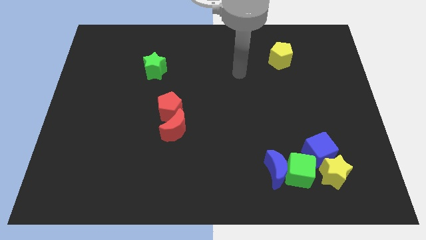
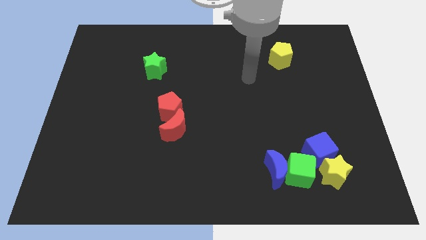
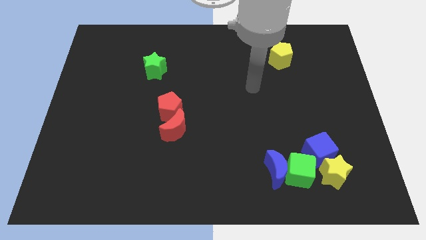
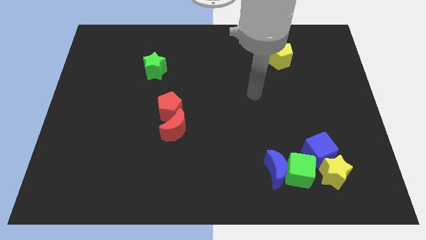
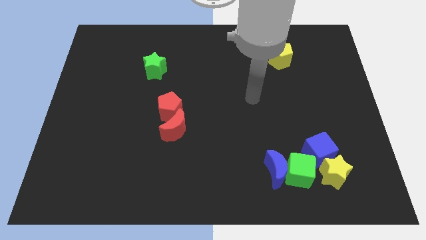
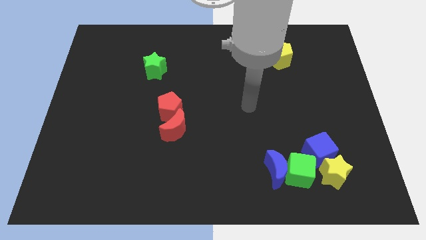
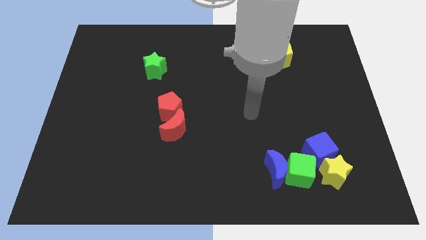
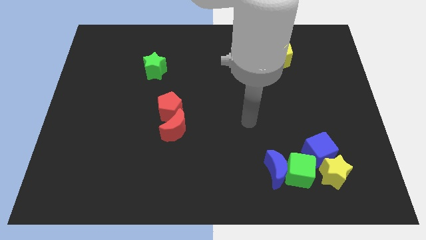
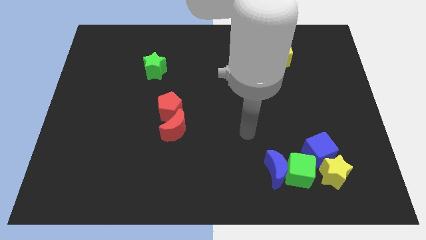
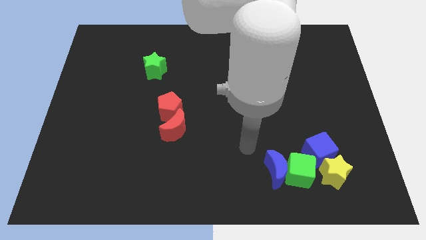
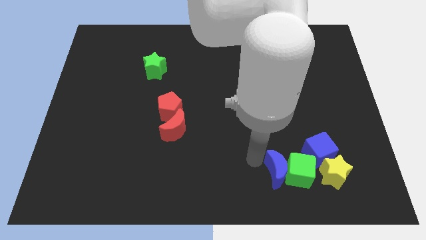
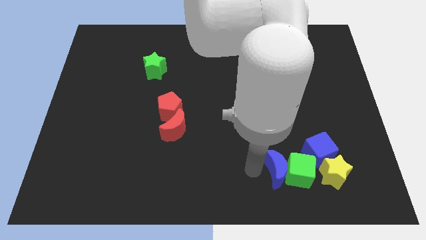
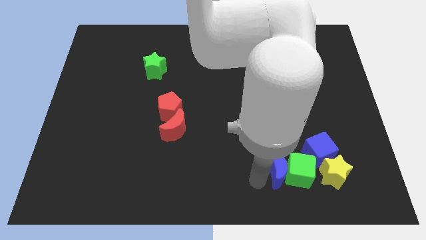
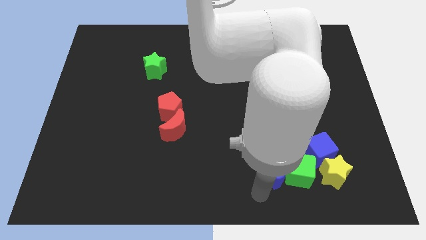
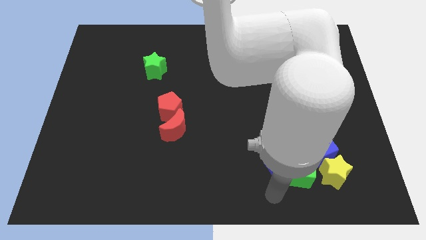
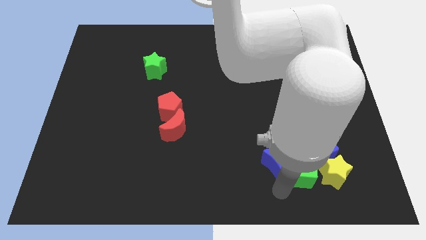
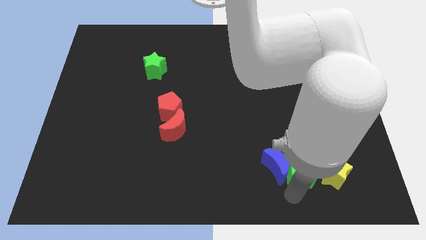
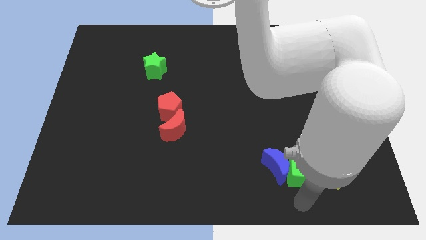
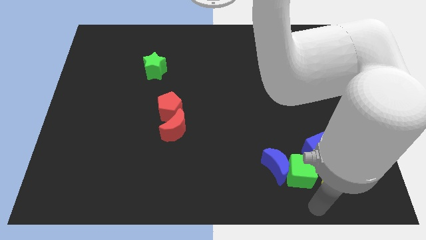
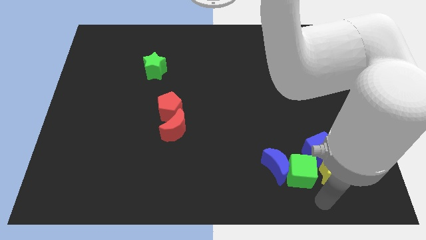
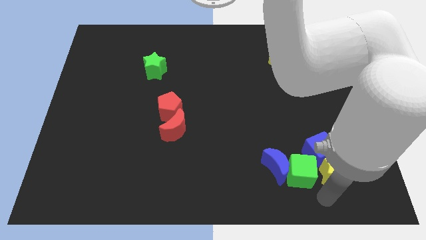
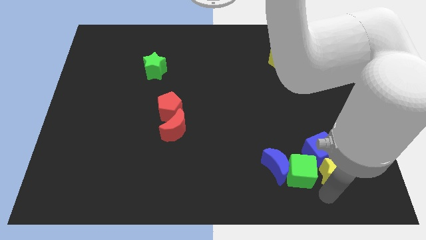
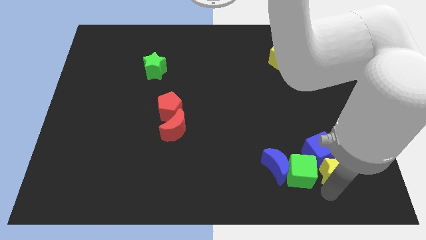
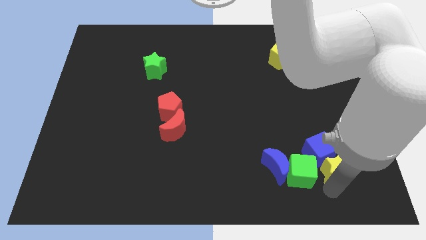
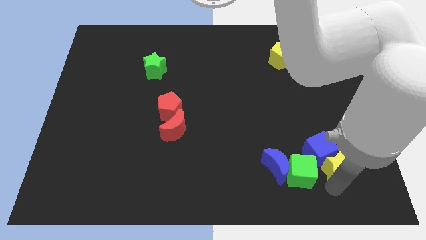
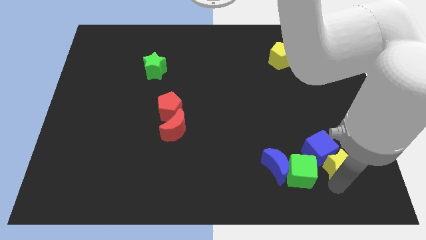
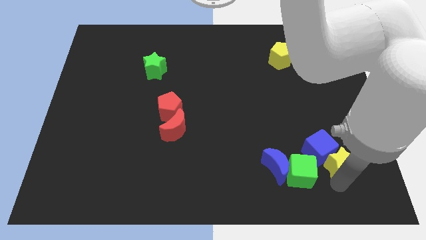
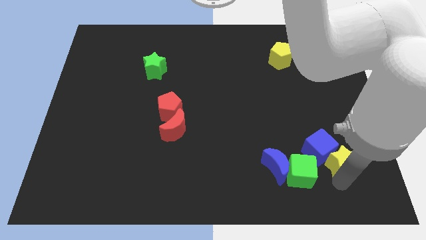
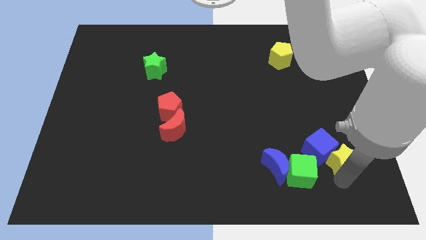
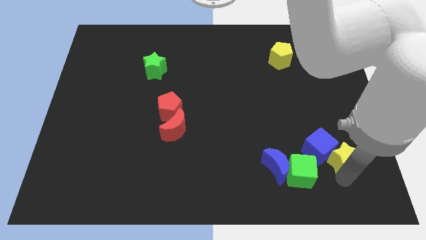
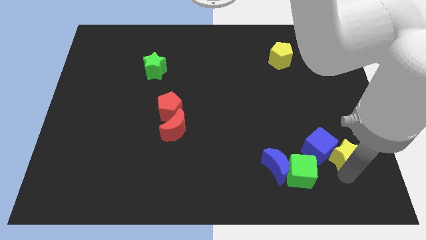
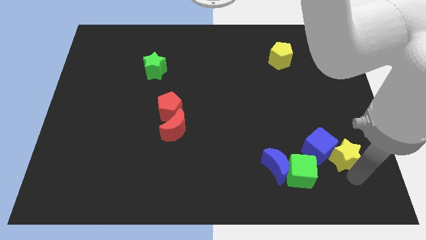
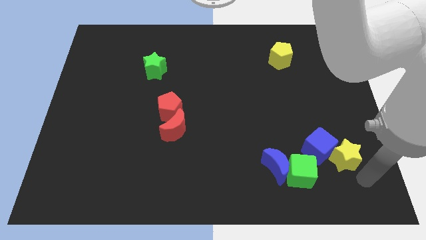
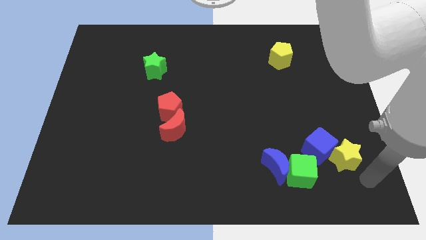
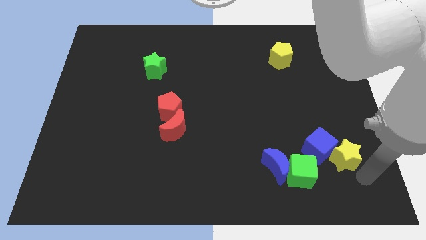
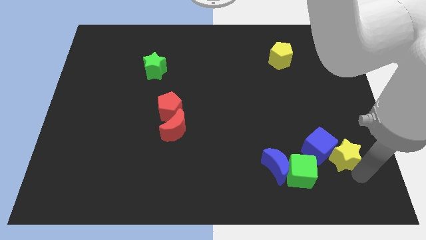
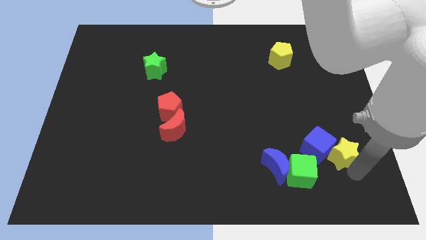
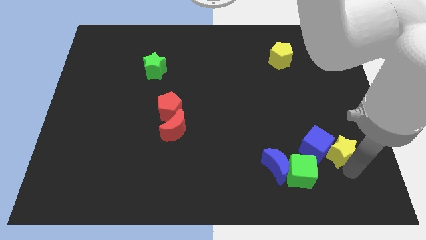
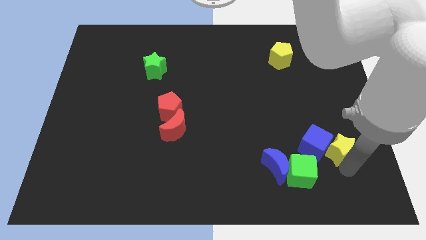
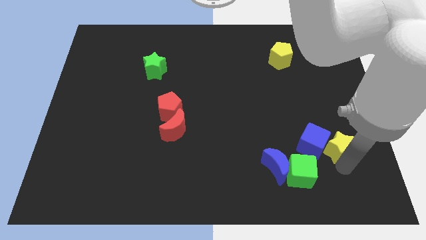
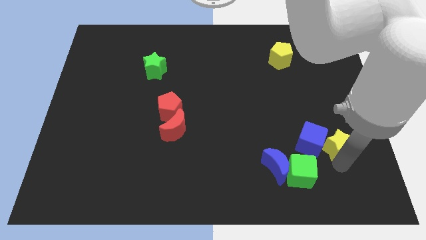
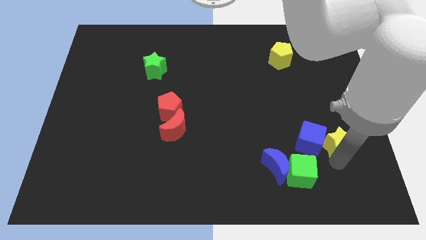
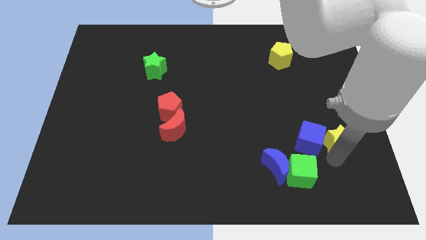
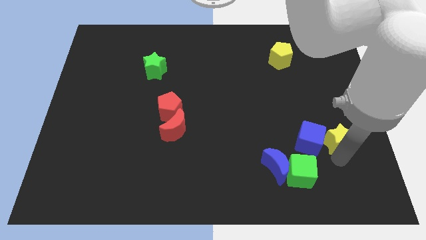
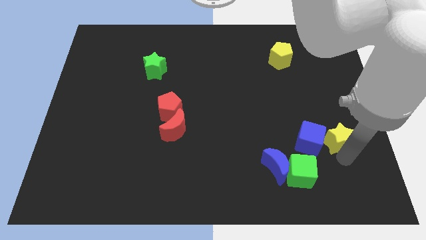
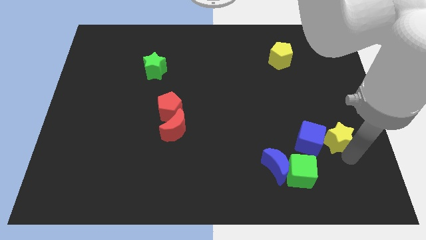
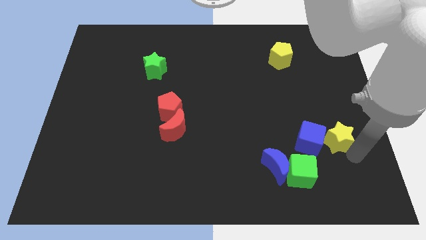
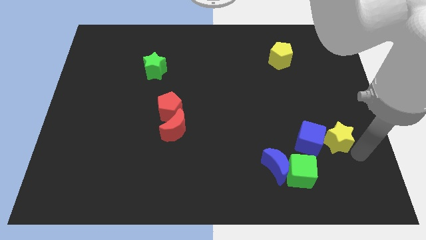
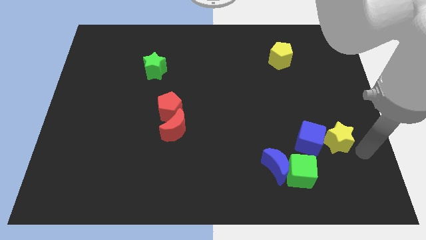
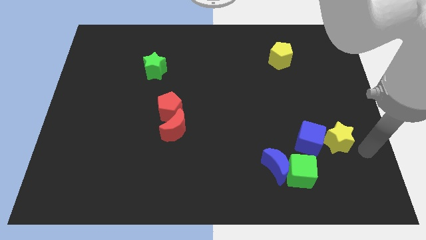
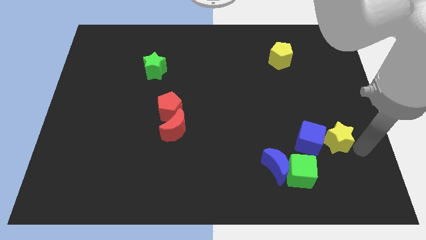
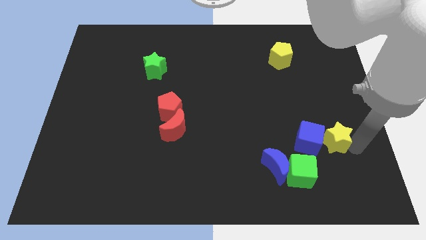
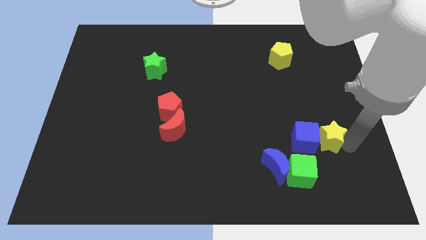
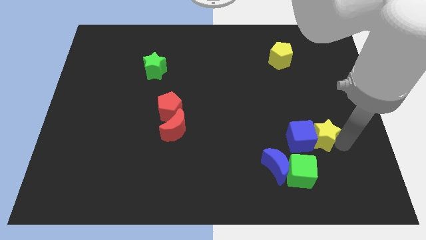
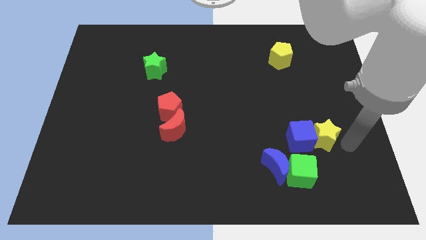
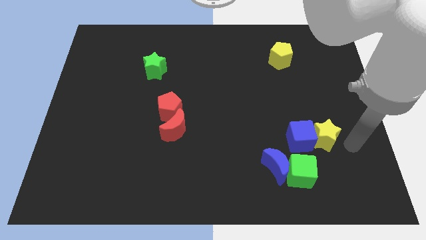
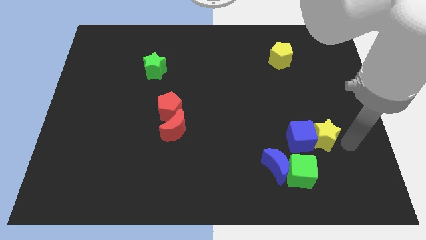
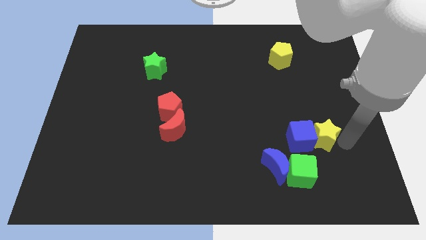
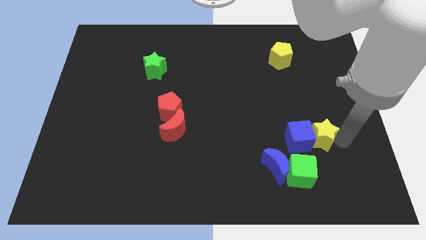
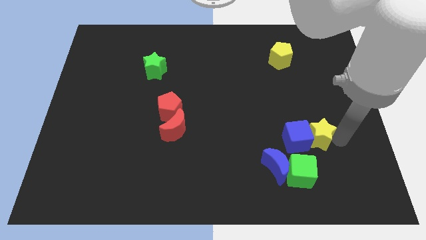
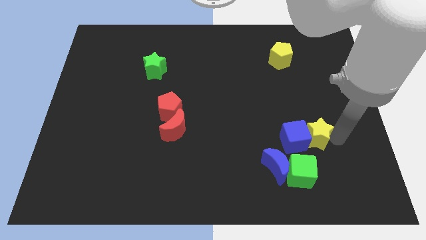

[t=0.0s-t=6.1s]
push the yellow star a bit diagonally upwards and to the left

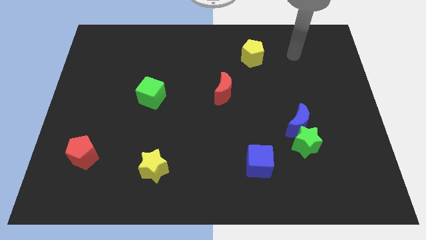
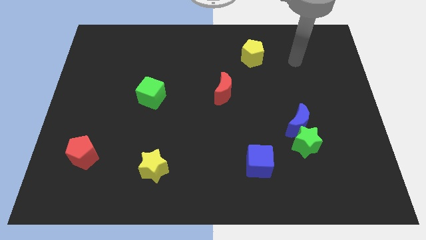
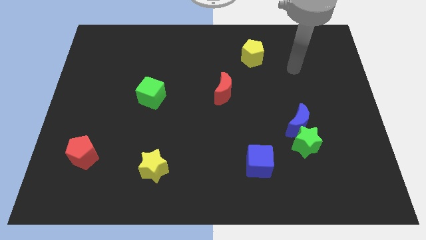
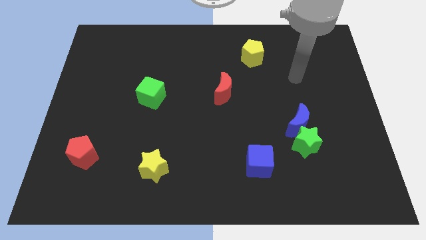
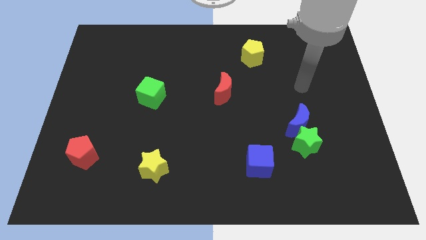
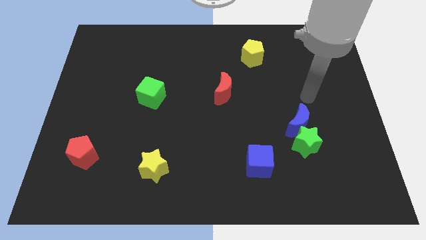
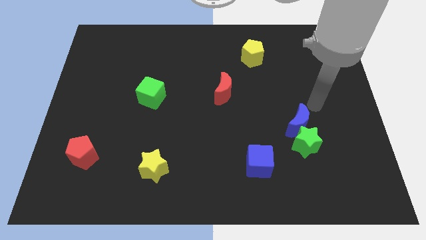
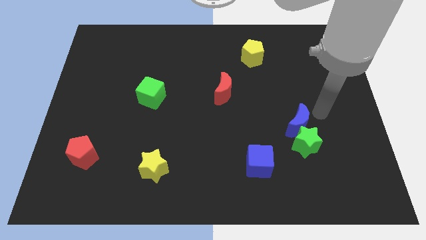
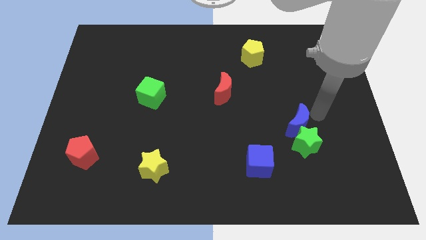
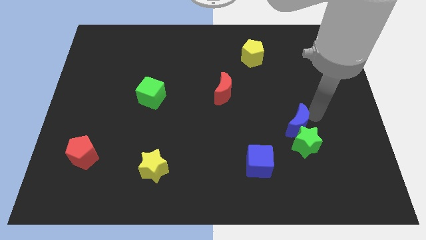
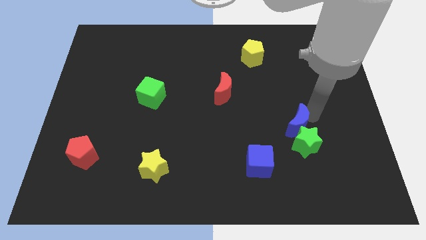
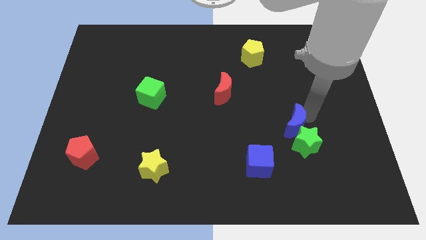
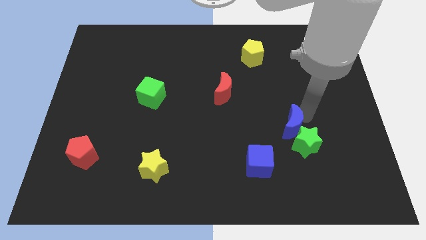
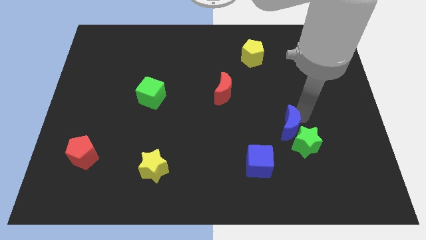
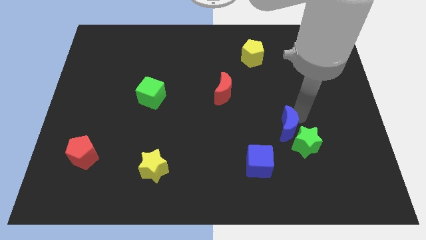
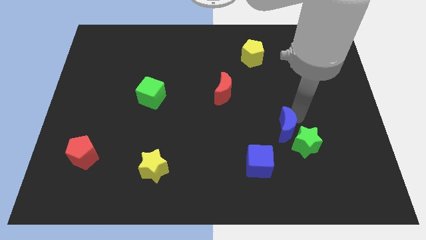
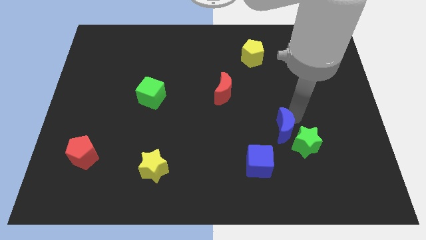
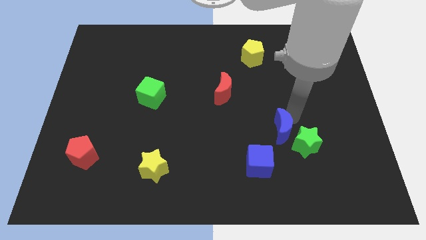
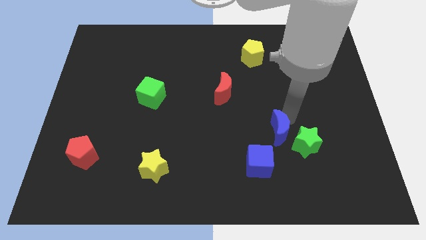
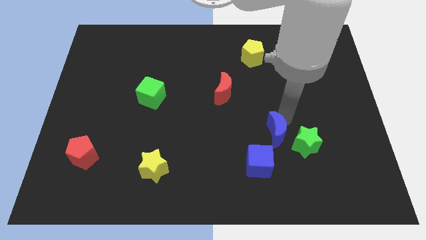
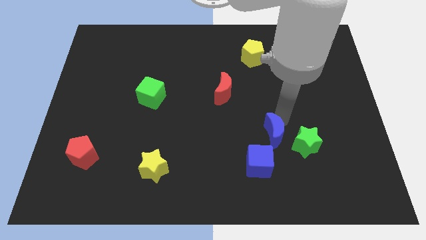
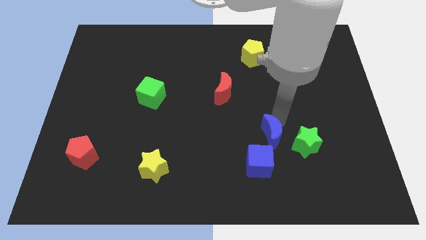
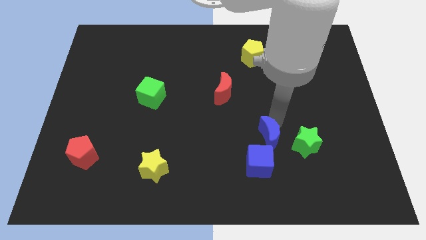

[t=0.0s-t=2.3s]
push the blue moon a little downwards and left diagonally
